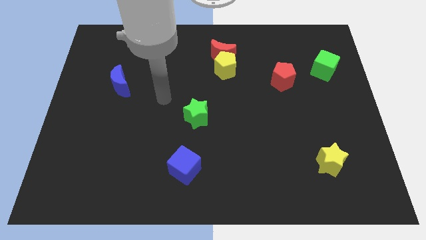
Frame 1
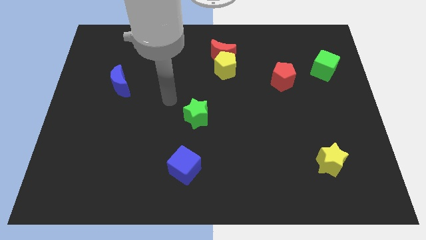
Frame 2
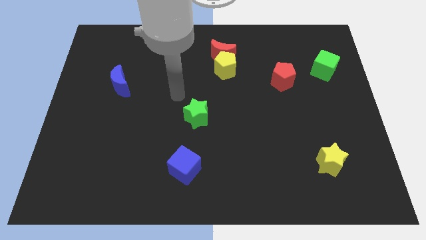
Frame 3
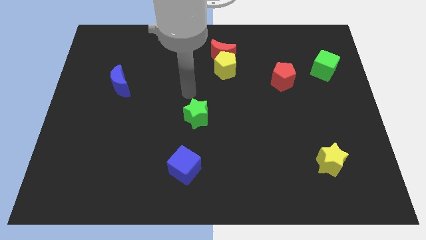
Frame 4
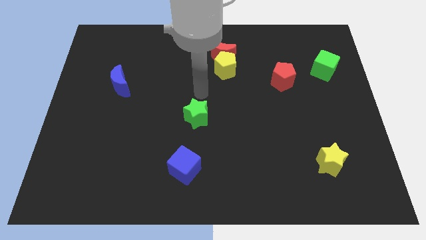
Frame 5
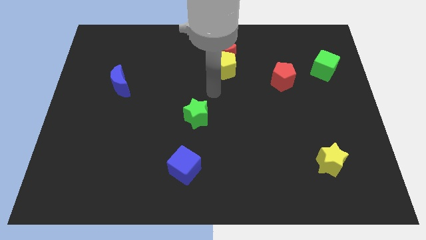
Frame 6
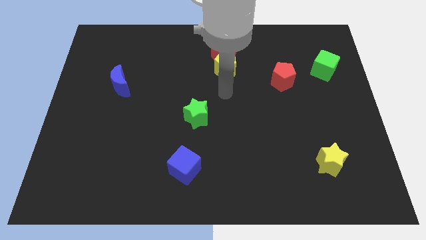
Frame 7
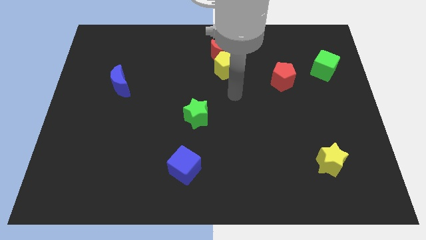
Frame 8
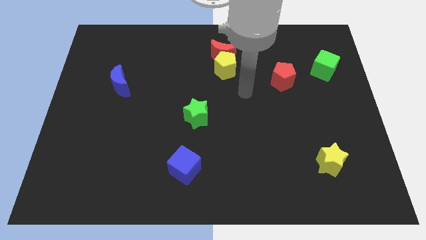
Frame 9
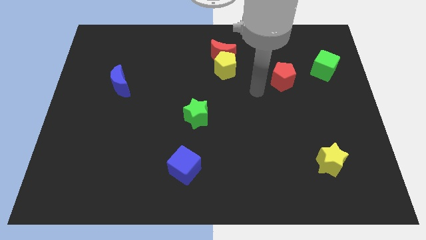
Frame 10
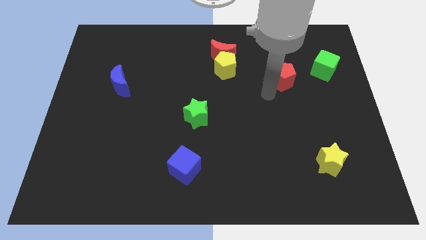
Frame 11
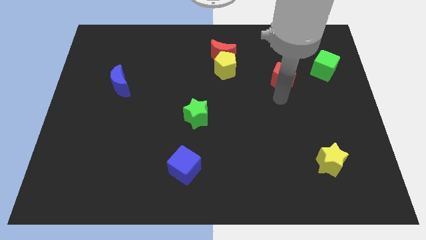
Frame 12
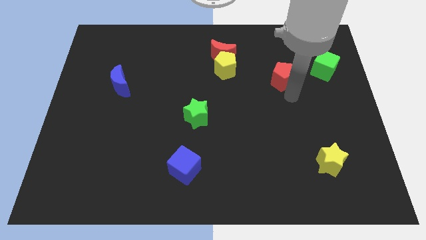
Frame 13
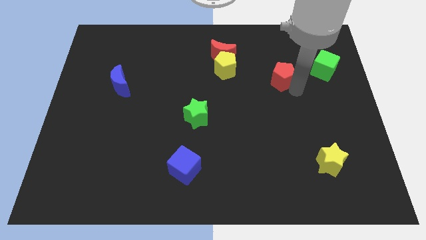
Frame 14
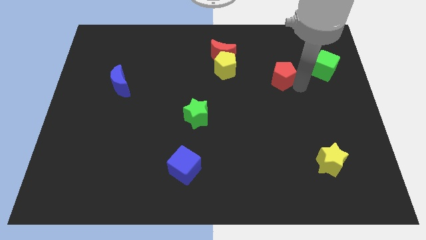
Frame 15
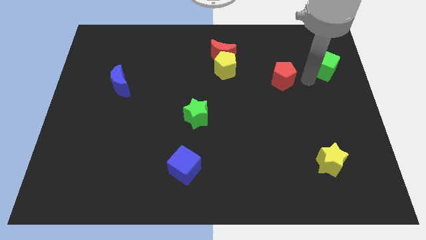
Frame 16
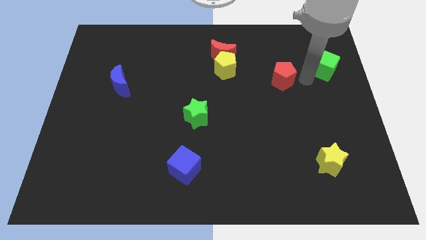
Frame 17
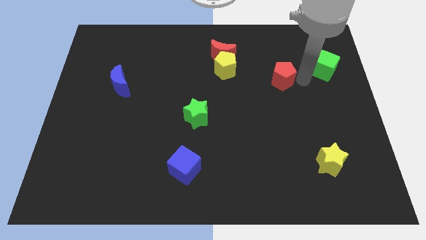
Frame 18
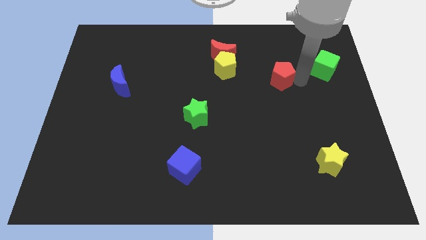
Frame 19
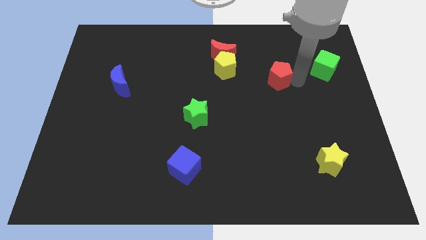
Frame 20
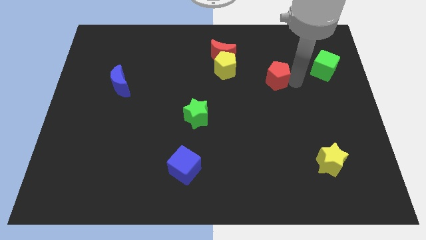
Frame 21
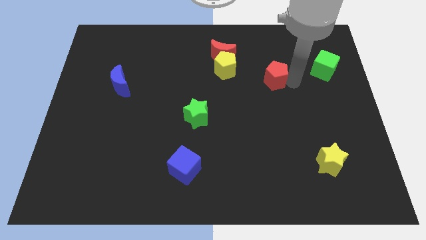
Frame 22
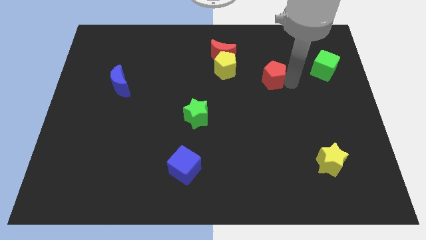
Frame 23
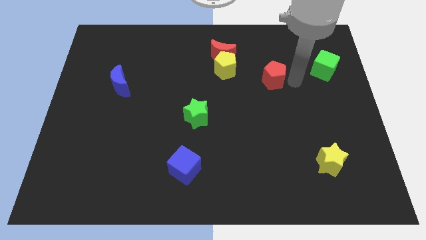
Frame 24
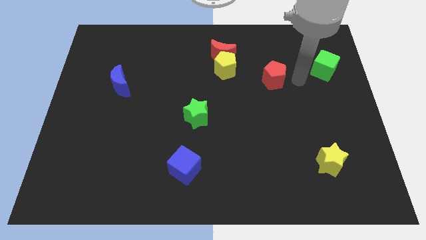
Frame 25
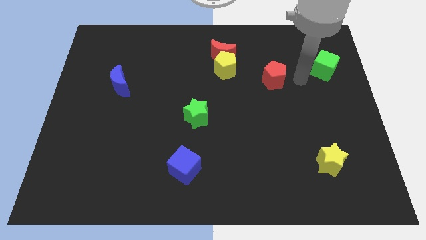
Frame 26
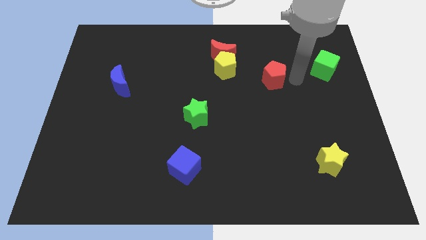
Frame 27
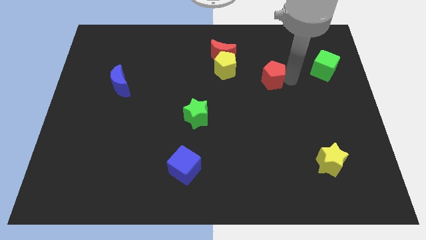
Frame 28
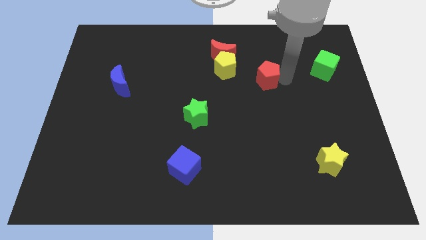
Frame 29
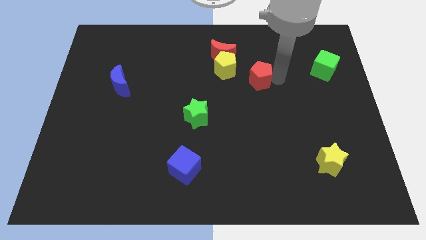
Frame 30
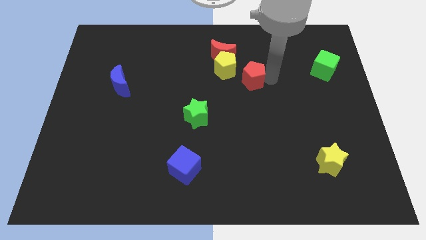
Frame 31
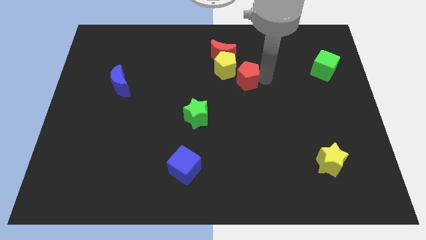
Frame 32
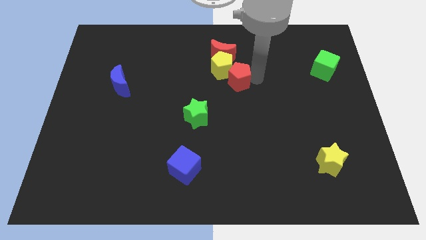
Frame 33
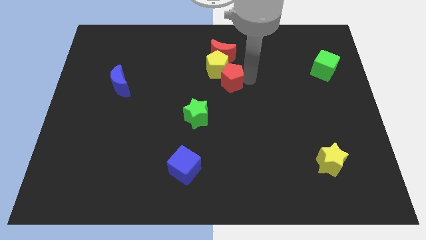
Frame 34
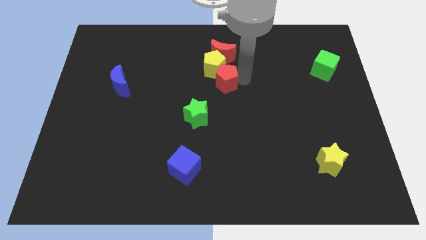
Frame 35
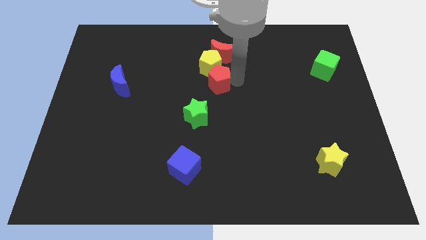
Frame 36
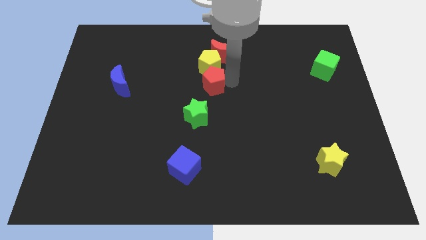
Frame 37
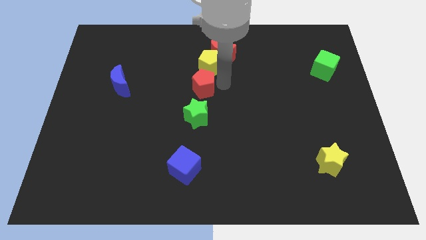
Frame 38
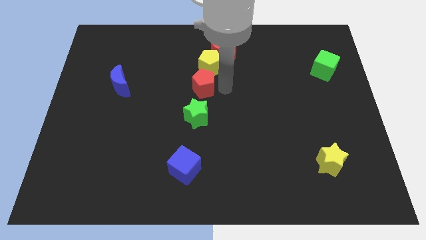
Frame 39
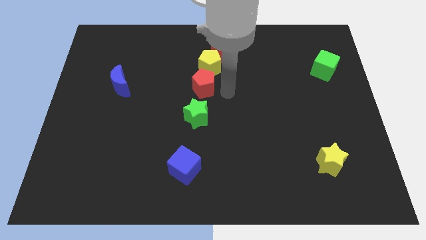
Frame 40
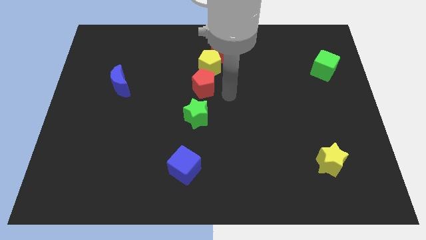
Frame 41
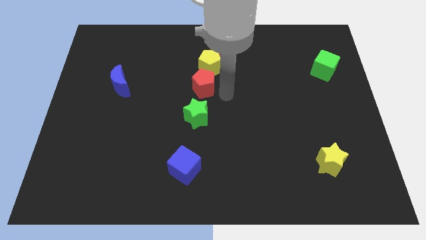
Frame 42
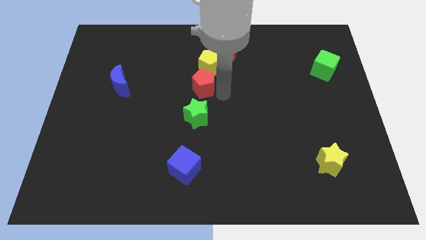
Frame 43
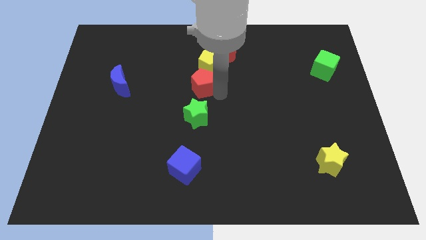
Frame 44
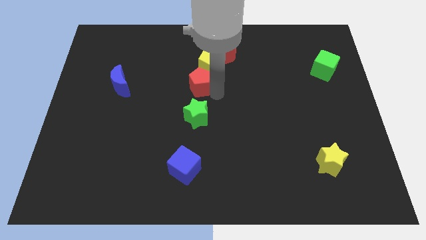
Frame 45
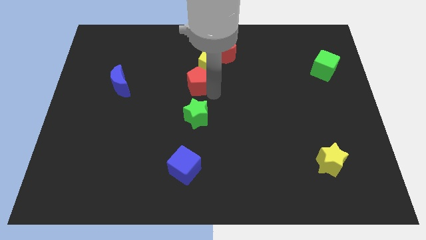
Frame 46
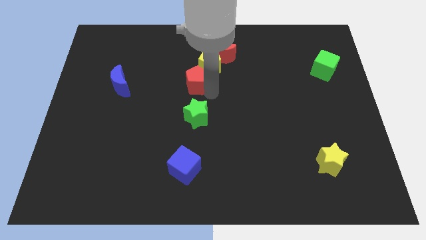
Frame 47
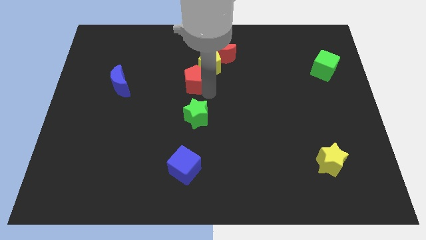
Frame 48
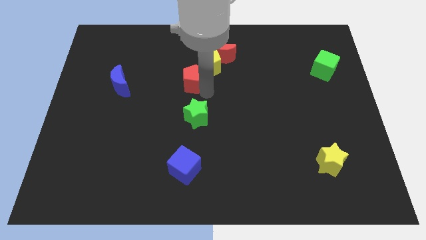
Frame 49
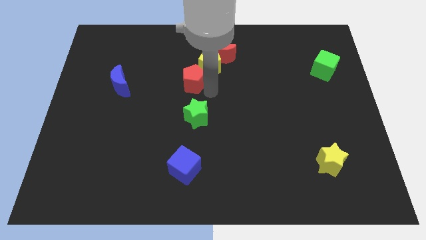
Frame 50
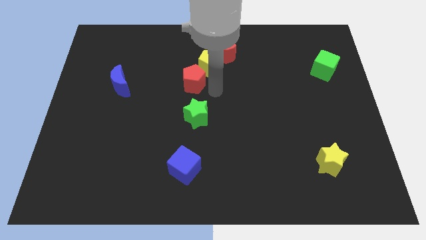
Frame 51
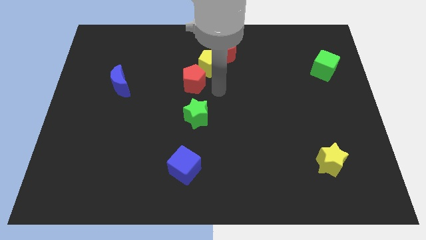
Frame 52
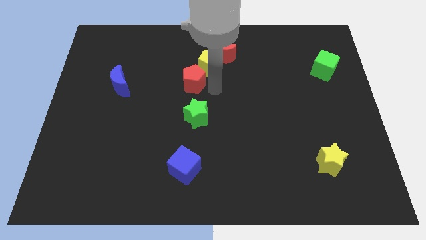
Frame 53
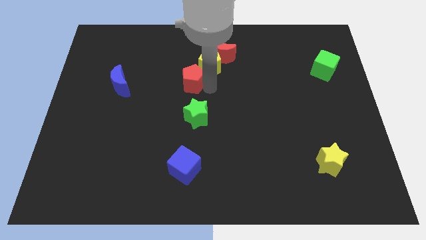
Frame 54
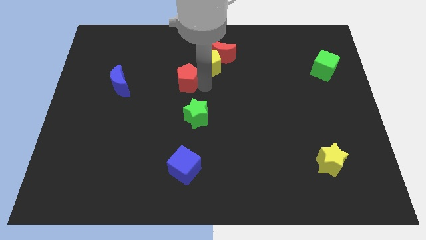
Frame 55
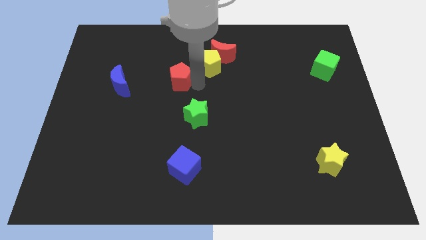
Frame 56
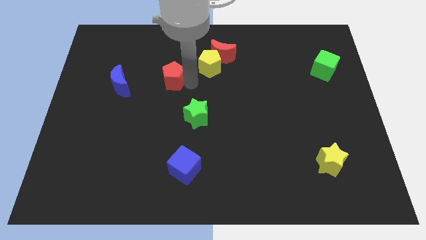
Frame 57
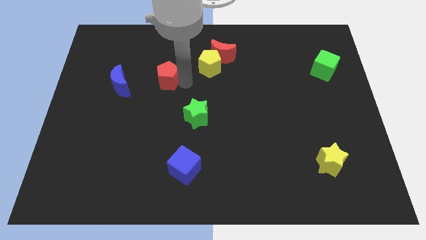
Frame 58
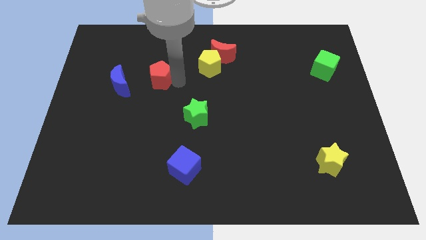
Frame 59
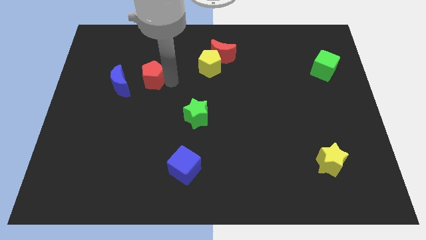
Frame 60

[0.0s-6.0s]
move the red pentagon diagonally up and to the right of the blue moon

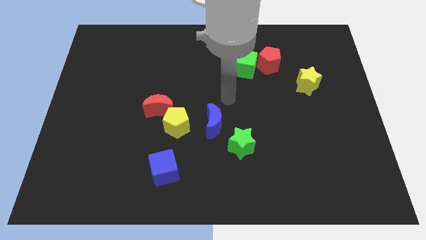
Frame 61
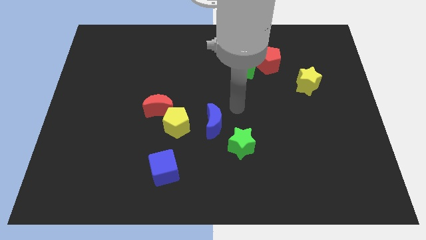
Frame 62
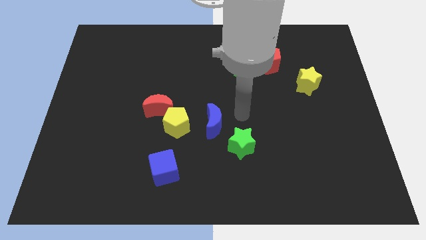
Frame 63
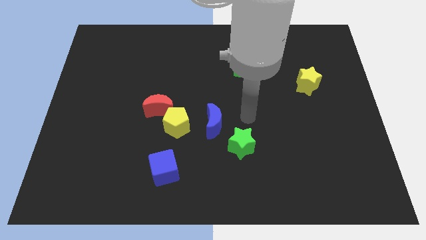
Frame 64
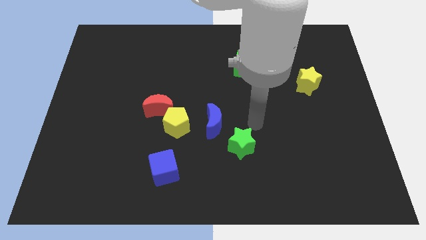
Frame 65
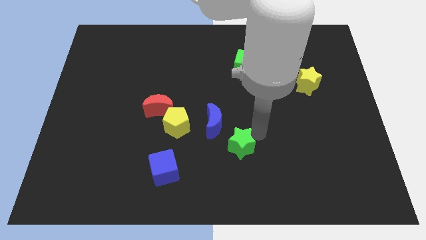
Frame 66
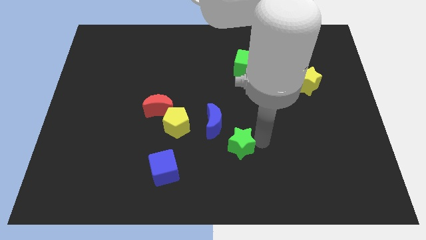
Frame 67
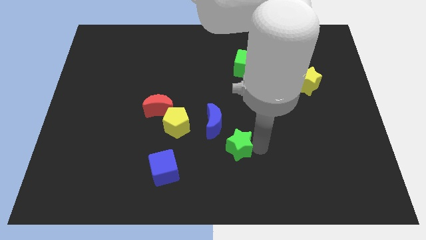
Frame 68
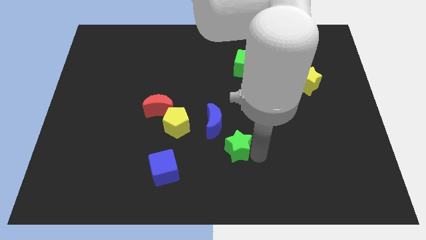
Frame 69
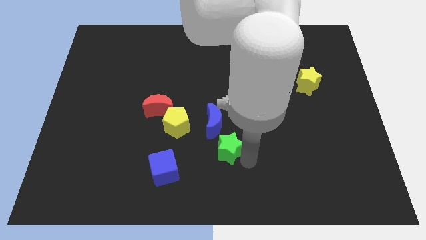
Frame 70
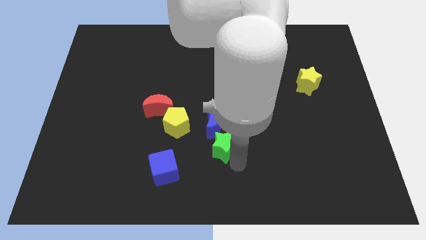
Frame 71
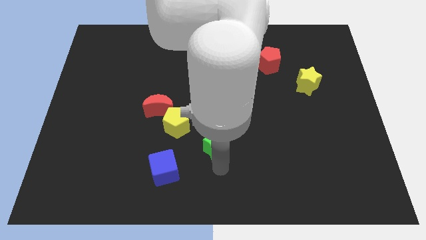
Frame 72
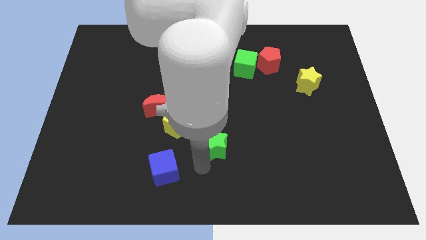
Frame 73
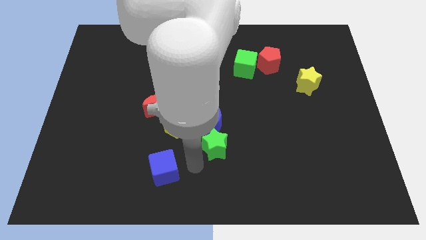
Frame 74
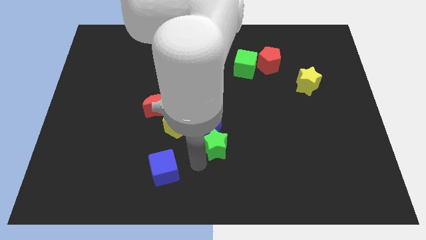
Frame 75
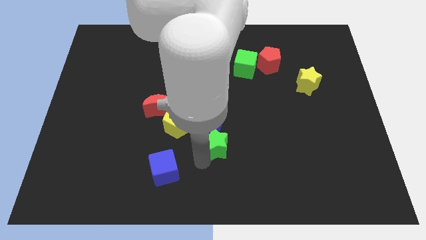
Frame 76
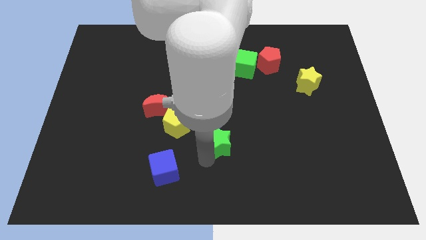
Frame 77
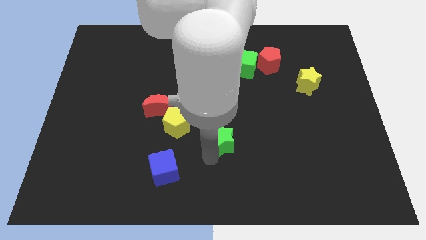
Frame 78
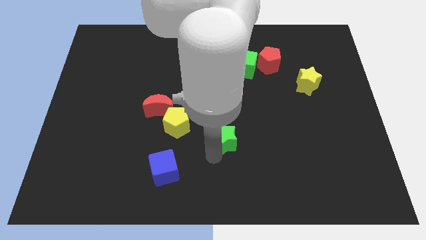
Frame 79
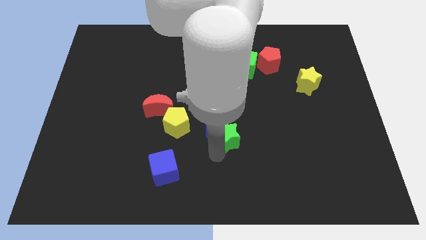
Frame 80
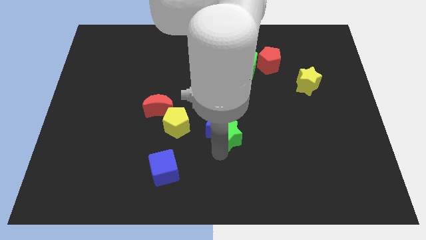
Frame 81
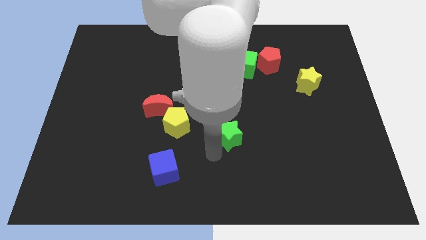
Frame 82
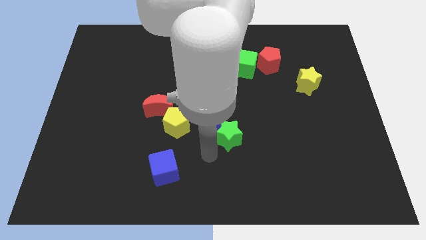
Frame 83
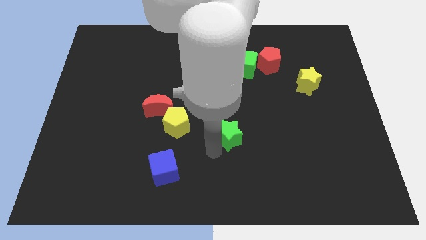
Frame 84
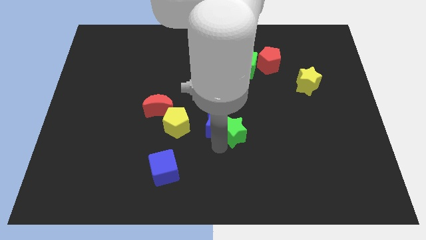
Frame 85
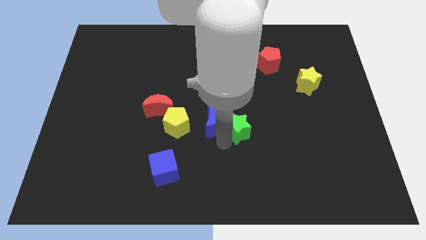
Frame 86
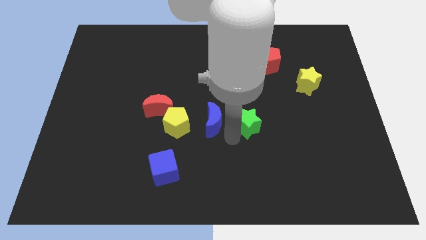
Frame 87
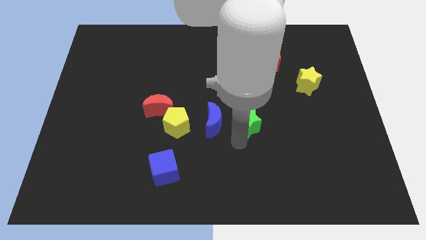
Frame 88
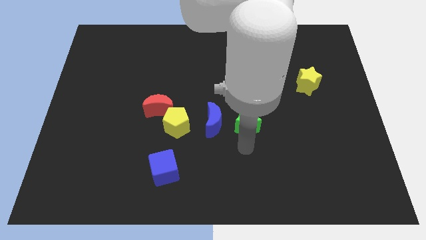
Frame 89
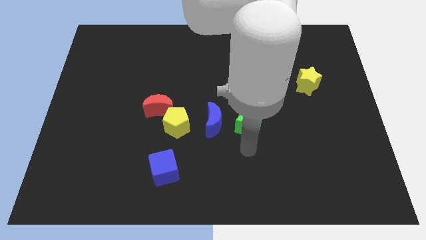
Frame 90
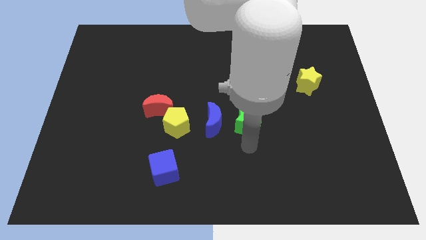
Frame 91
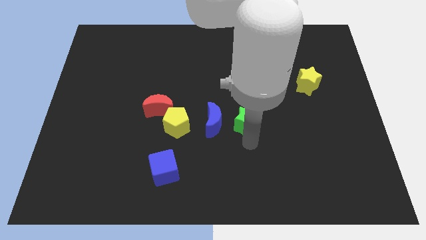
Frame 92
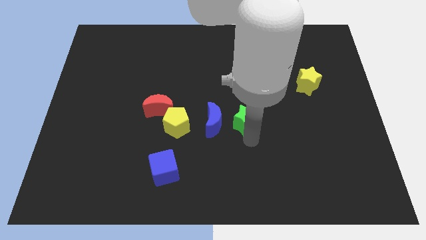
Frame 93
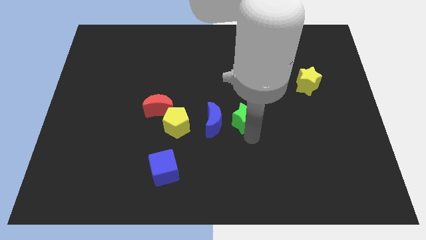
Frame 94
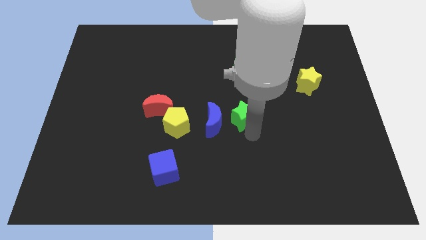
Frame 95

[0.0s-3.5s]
move the green star to the bottom of the green cube
